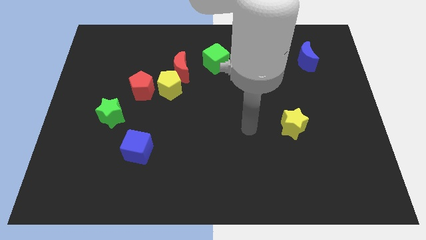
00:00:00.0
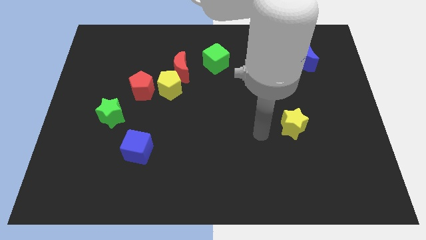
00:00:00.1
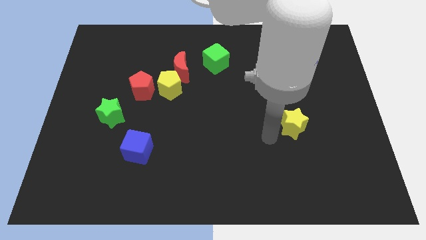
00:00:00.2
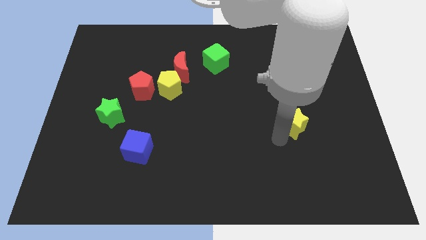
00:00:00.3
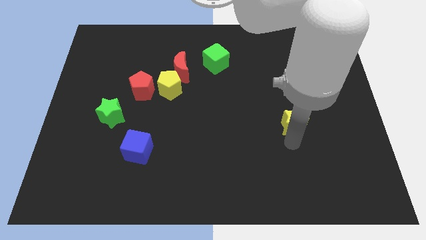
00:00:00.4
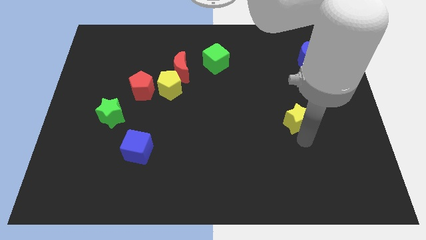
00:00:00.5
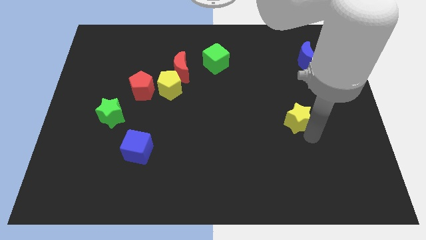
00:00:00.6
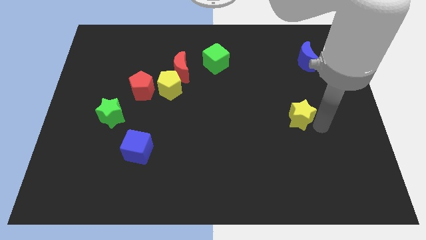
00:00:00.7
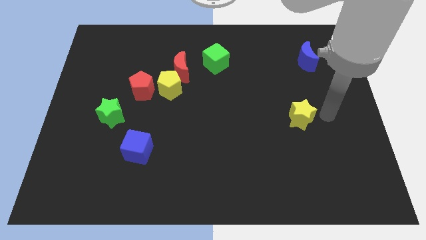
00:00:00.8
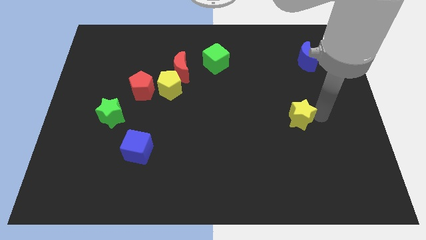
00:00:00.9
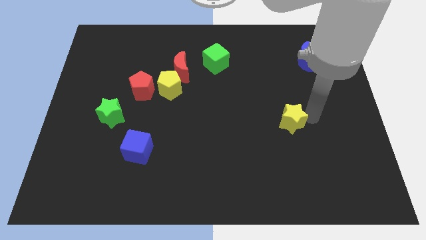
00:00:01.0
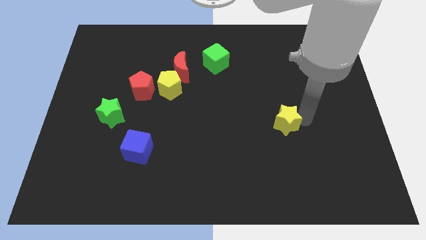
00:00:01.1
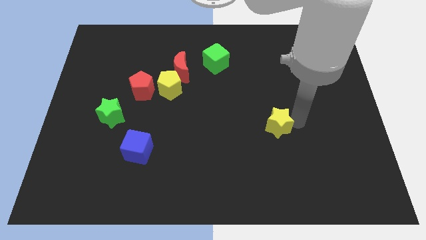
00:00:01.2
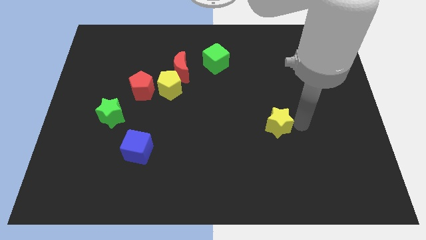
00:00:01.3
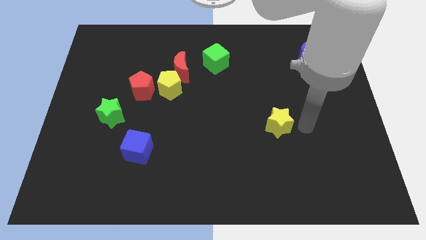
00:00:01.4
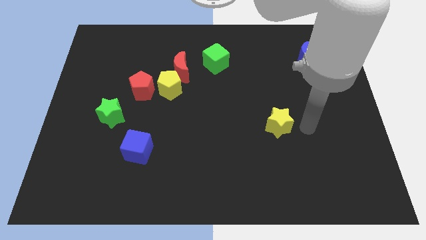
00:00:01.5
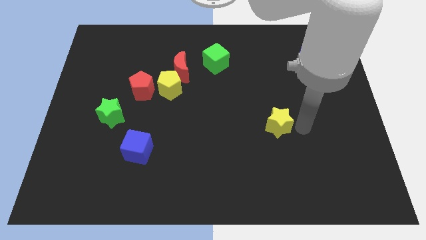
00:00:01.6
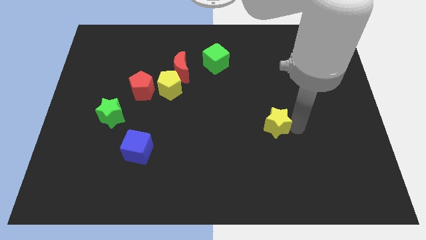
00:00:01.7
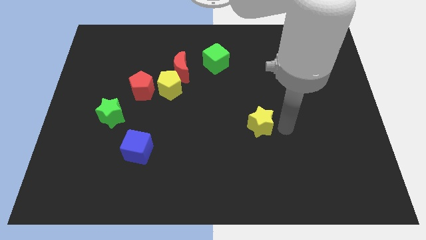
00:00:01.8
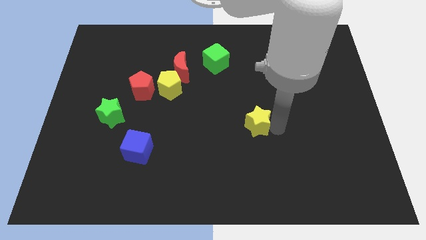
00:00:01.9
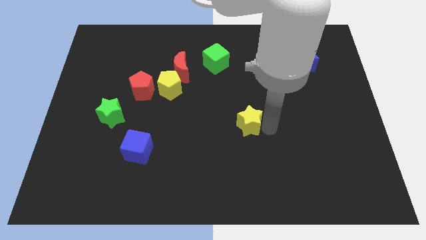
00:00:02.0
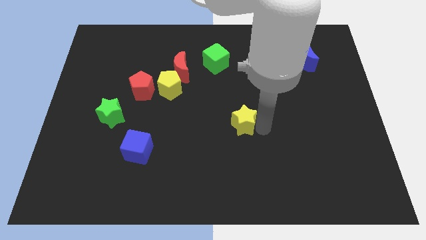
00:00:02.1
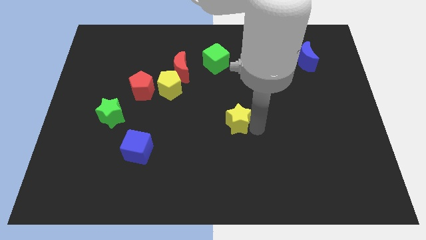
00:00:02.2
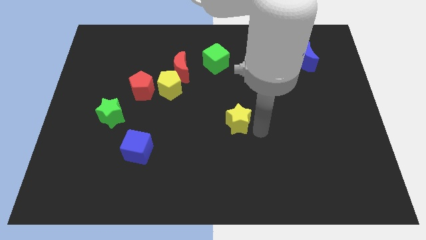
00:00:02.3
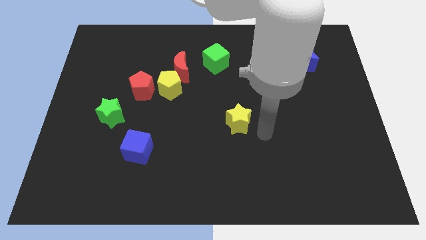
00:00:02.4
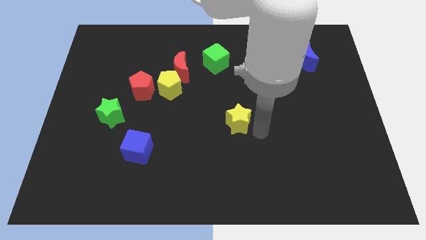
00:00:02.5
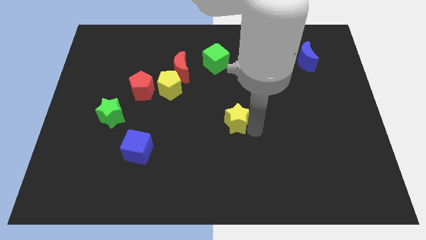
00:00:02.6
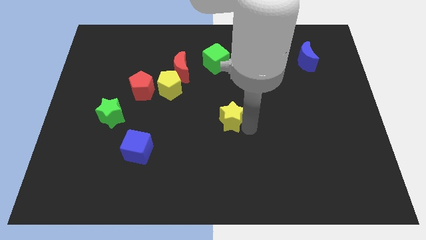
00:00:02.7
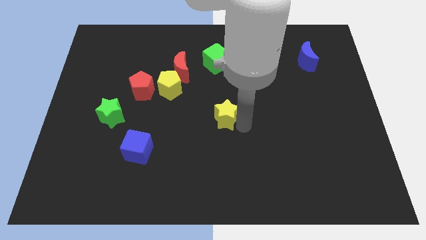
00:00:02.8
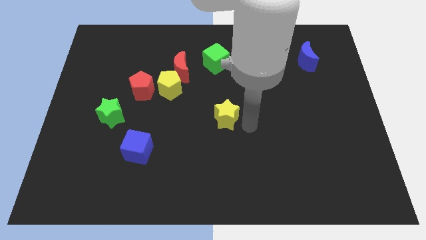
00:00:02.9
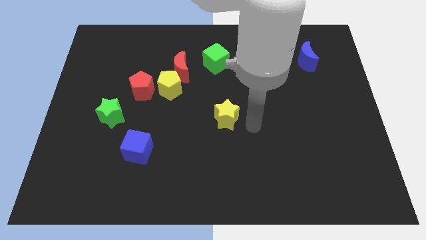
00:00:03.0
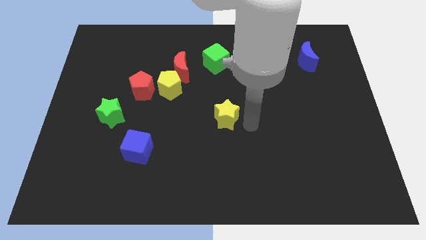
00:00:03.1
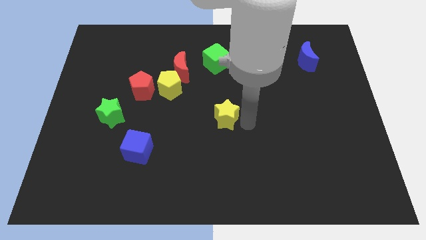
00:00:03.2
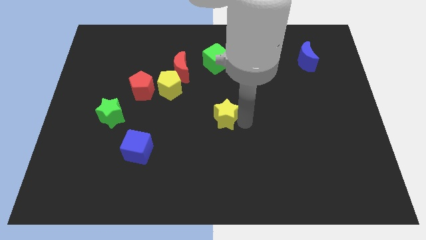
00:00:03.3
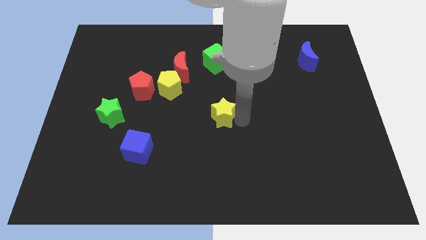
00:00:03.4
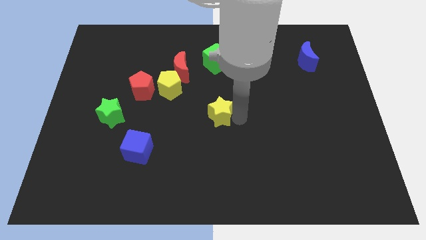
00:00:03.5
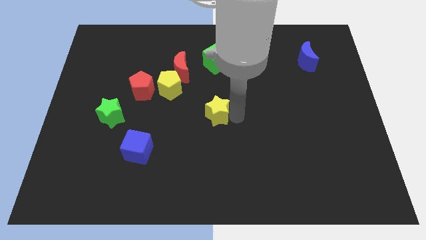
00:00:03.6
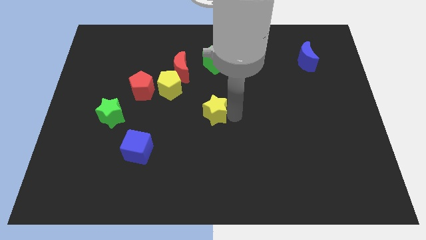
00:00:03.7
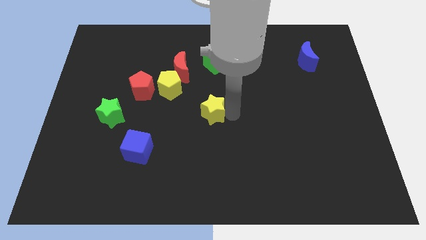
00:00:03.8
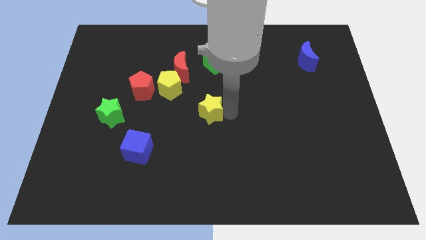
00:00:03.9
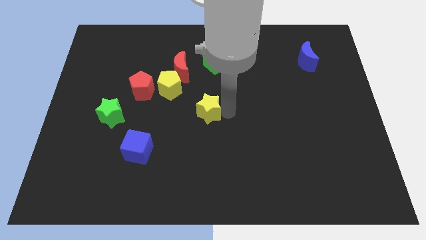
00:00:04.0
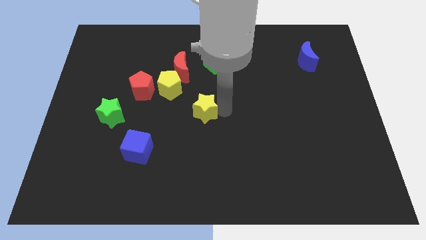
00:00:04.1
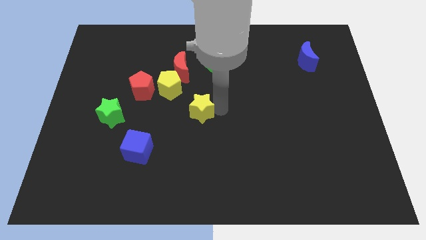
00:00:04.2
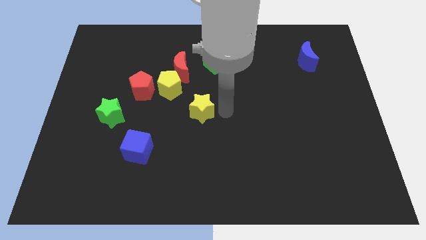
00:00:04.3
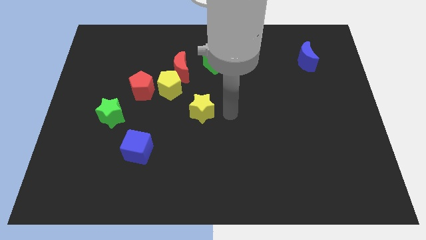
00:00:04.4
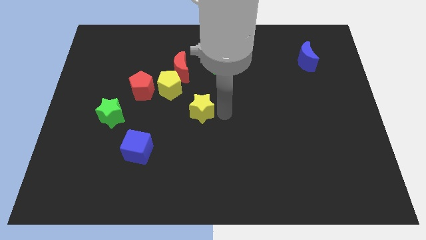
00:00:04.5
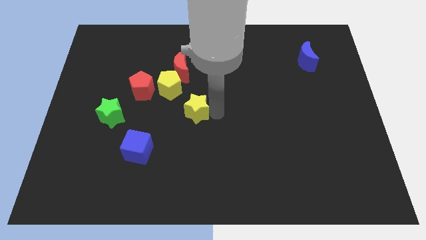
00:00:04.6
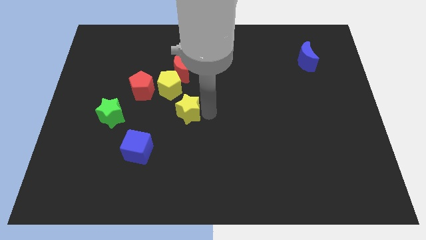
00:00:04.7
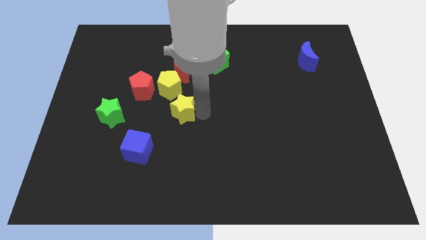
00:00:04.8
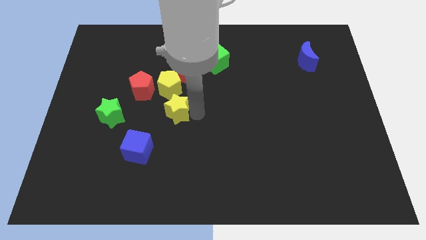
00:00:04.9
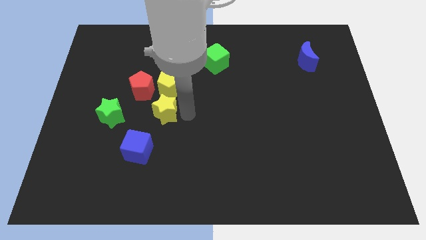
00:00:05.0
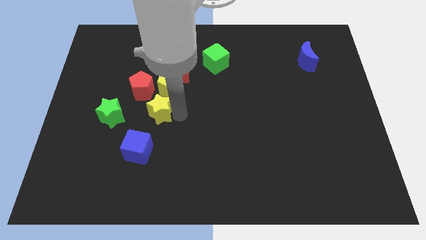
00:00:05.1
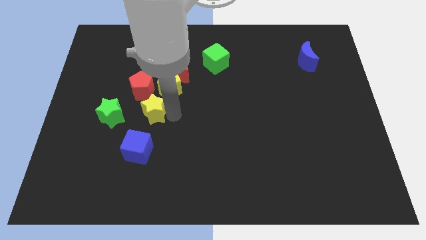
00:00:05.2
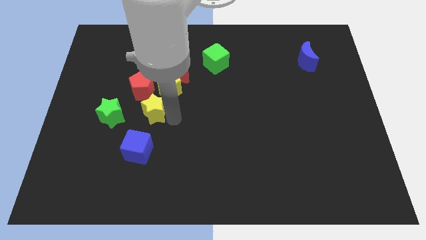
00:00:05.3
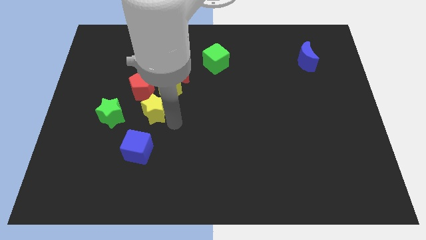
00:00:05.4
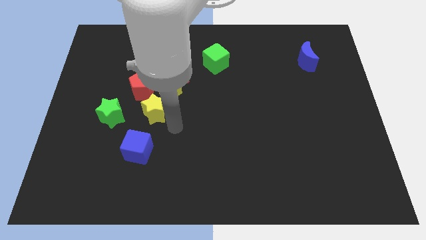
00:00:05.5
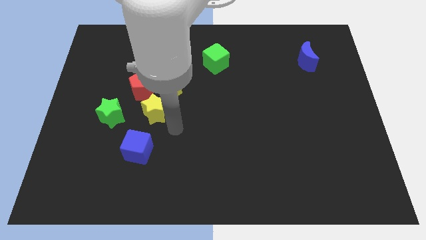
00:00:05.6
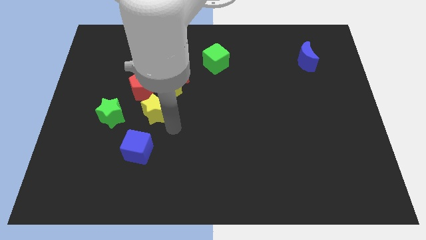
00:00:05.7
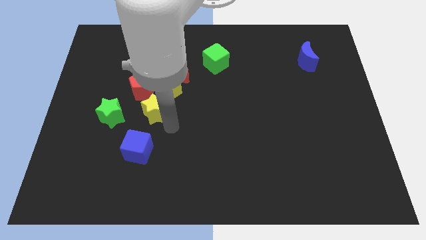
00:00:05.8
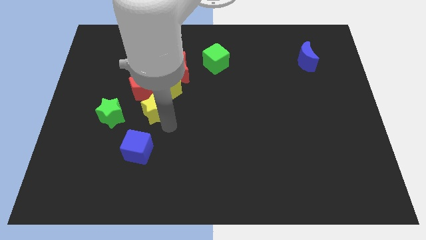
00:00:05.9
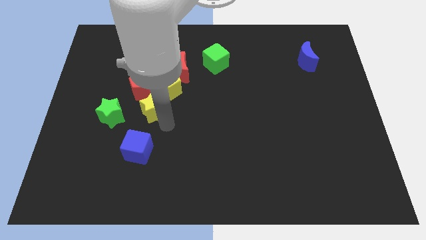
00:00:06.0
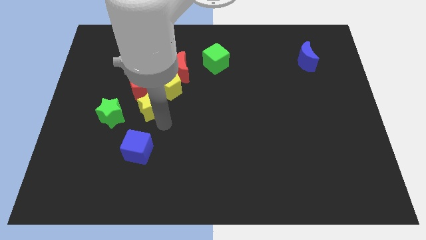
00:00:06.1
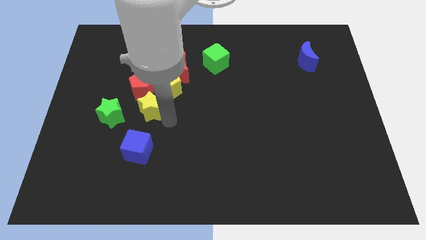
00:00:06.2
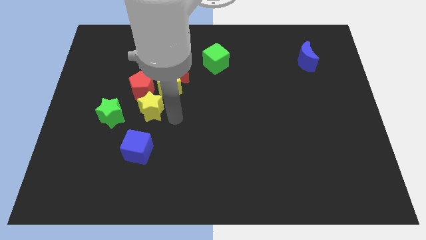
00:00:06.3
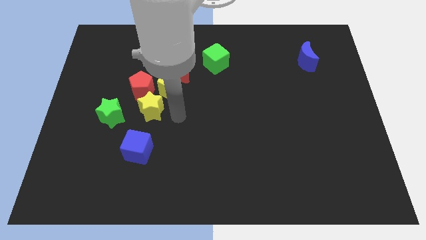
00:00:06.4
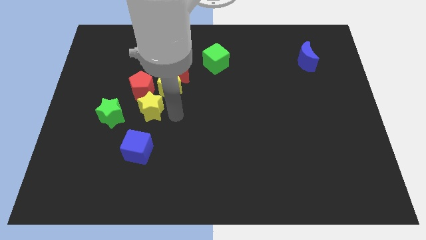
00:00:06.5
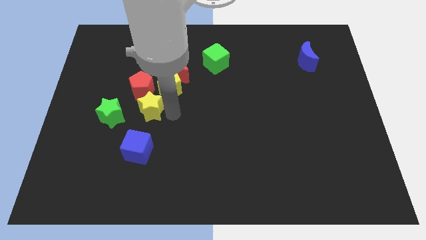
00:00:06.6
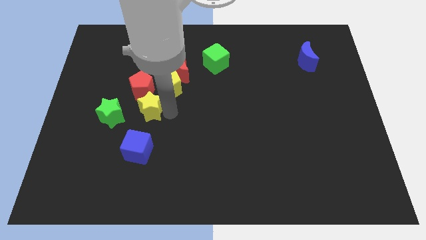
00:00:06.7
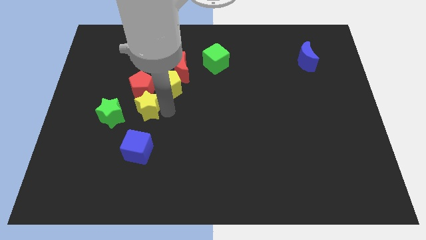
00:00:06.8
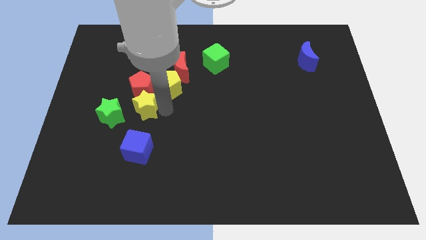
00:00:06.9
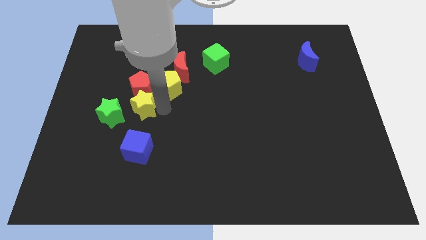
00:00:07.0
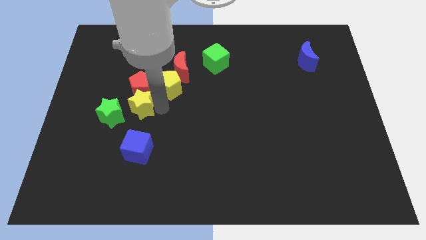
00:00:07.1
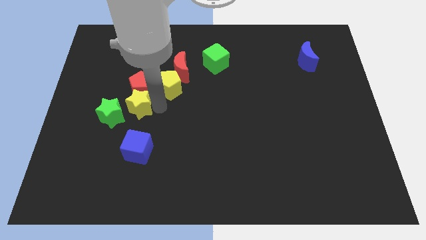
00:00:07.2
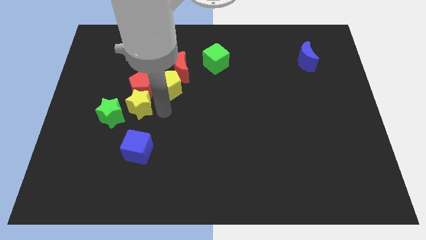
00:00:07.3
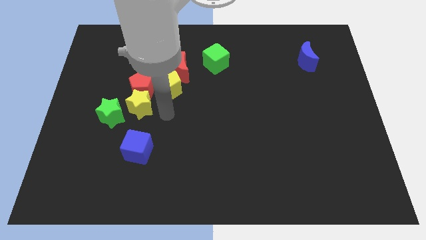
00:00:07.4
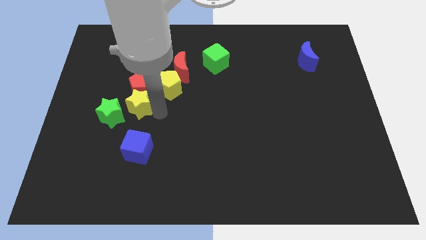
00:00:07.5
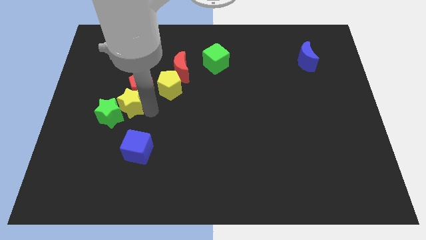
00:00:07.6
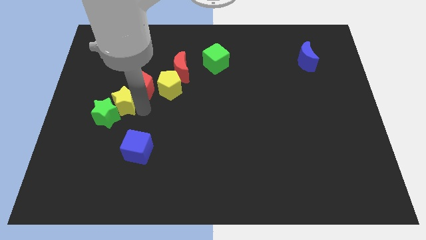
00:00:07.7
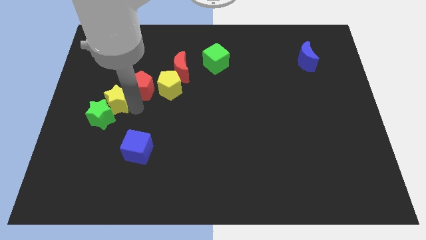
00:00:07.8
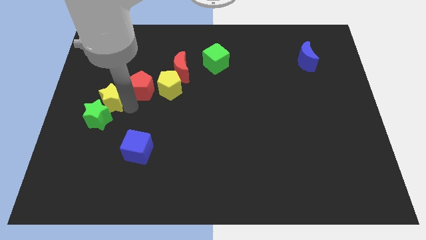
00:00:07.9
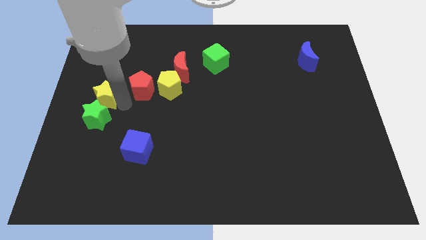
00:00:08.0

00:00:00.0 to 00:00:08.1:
put the yellow star to the center left
